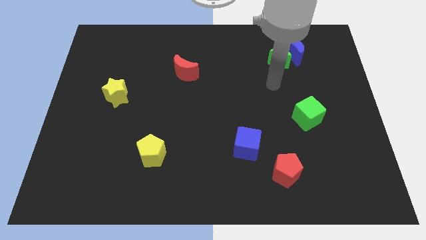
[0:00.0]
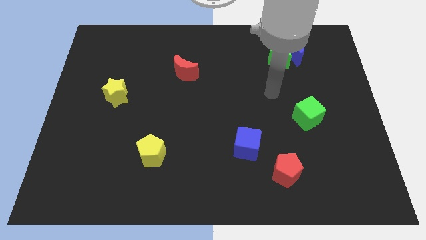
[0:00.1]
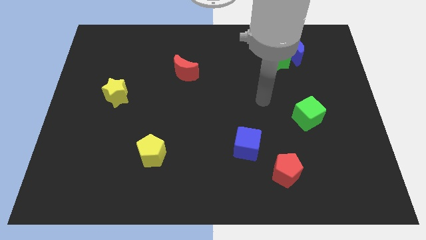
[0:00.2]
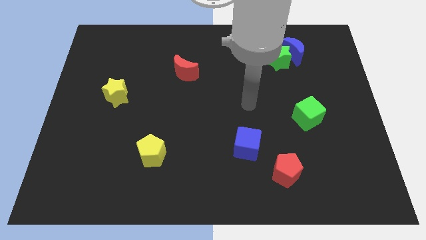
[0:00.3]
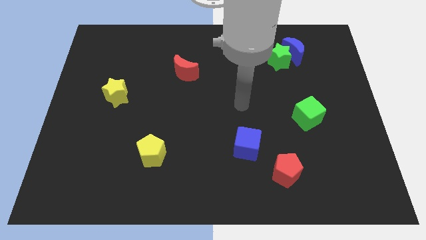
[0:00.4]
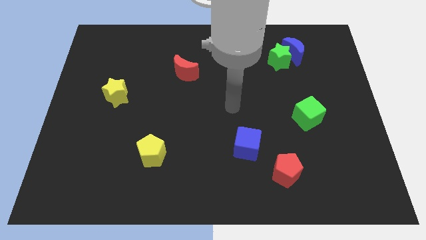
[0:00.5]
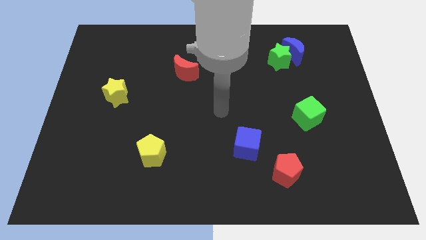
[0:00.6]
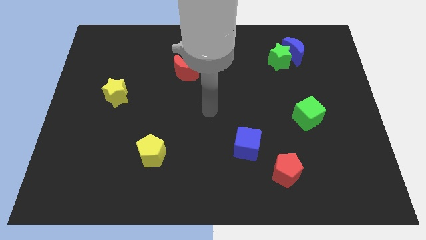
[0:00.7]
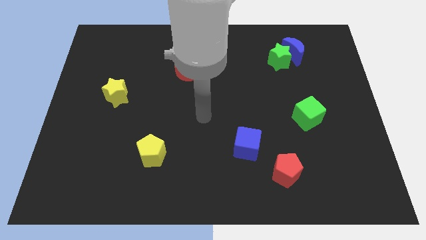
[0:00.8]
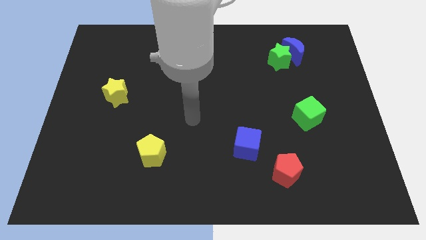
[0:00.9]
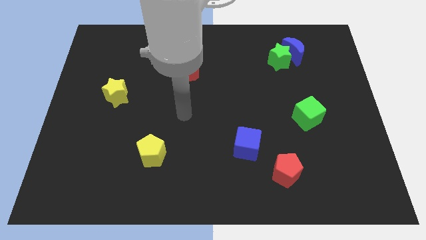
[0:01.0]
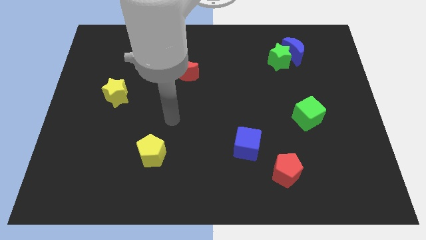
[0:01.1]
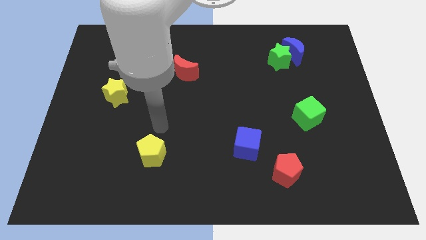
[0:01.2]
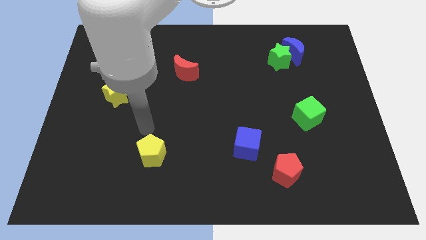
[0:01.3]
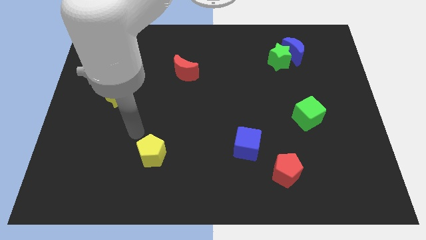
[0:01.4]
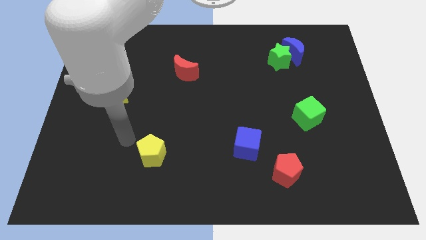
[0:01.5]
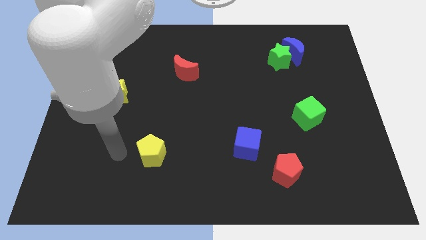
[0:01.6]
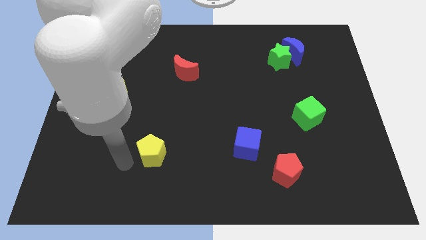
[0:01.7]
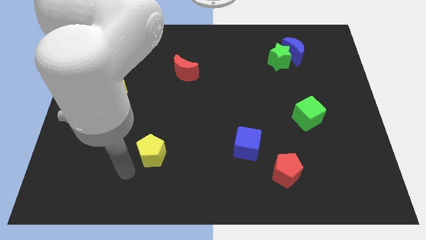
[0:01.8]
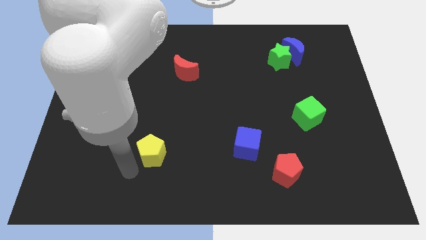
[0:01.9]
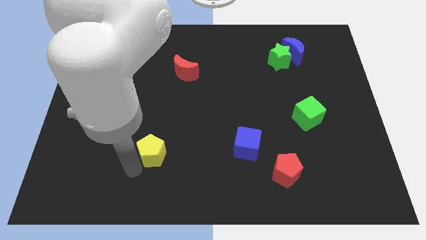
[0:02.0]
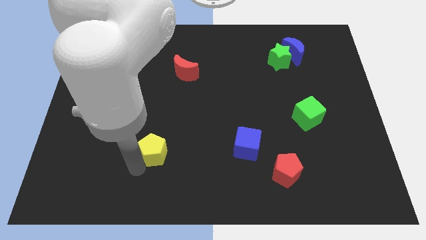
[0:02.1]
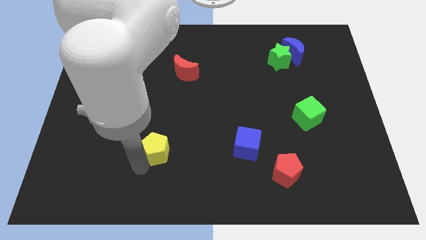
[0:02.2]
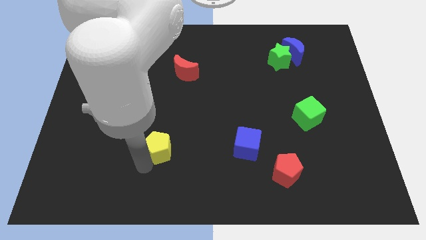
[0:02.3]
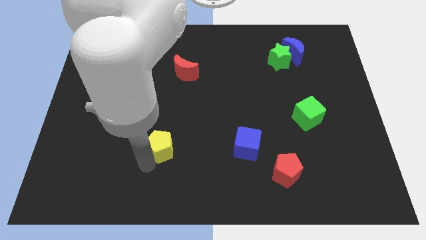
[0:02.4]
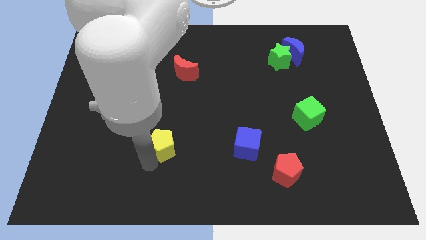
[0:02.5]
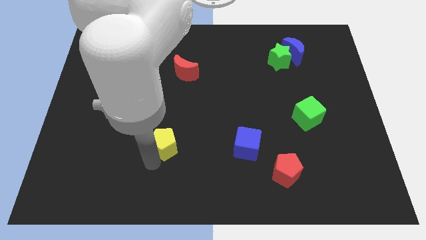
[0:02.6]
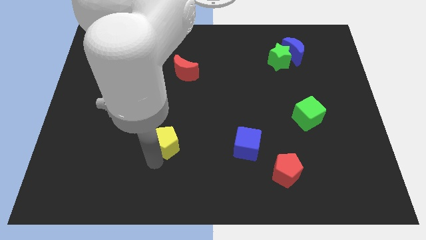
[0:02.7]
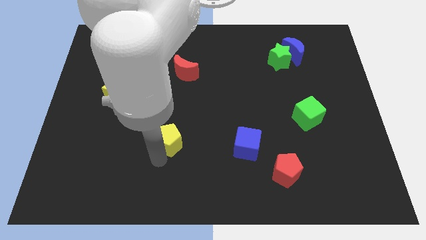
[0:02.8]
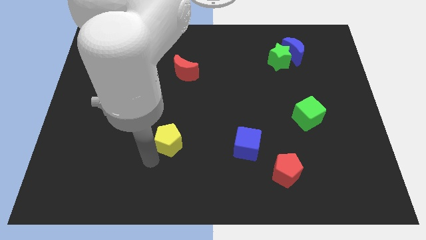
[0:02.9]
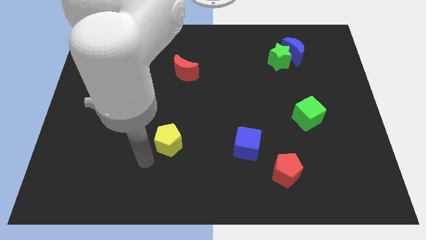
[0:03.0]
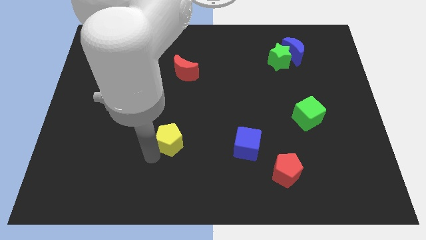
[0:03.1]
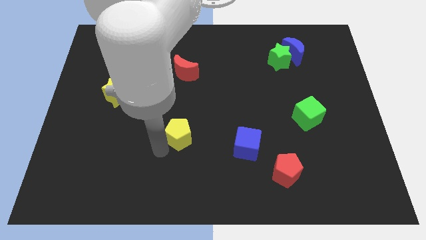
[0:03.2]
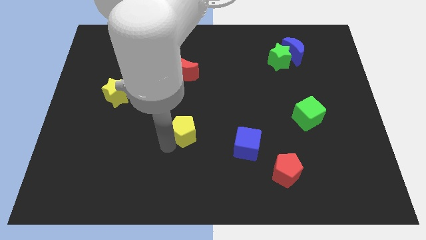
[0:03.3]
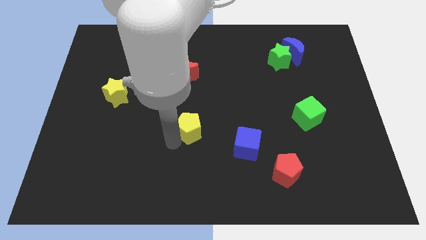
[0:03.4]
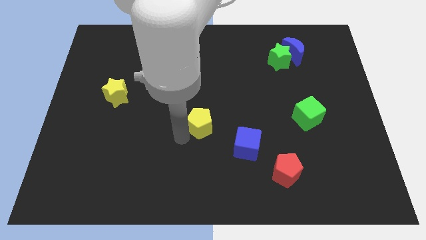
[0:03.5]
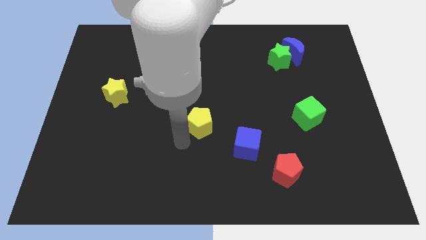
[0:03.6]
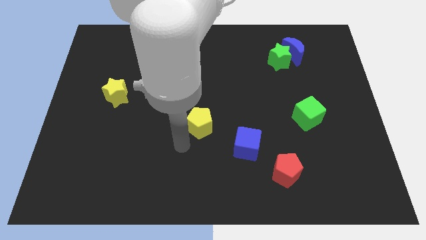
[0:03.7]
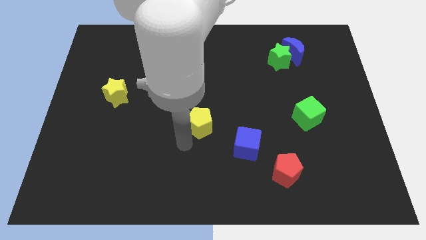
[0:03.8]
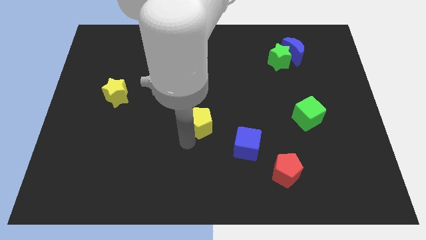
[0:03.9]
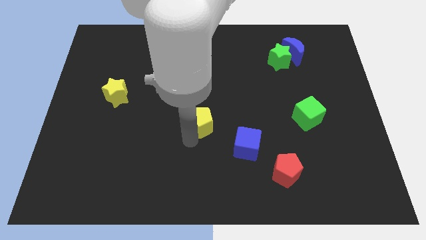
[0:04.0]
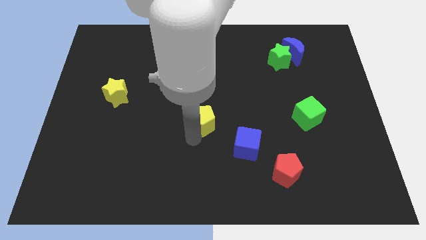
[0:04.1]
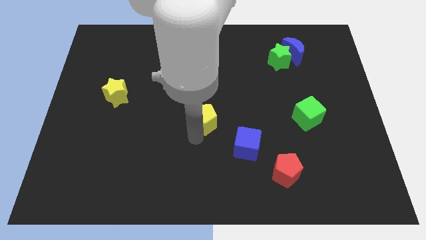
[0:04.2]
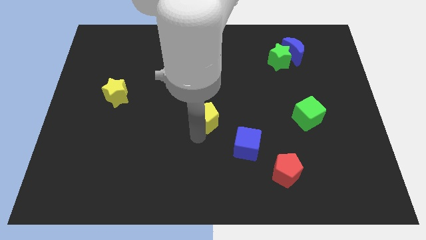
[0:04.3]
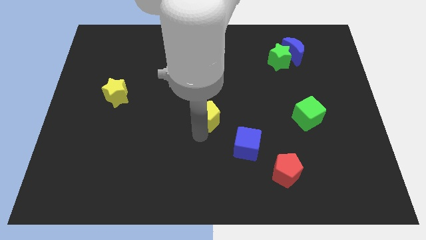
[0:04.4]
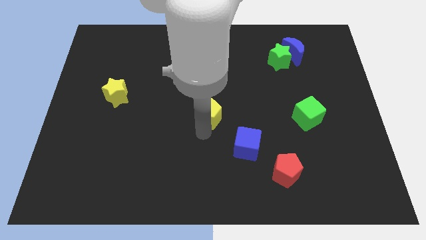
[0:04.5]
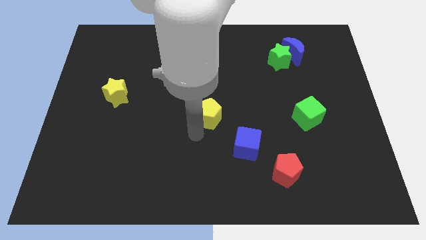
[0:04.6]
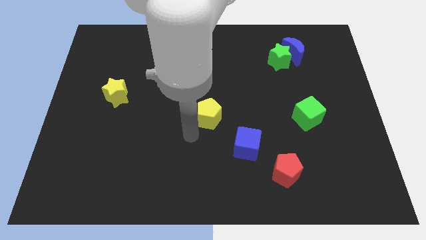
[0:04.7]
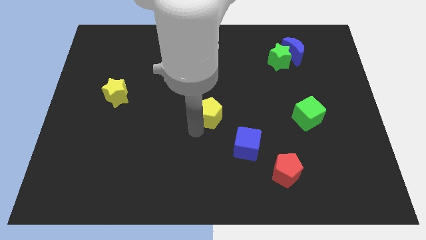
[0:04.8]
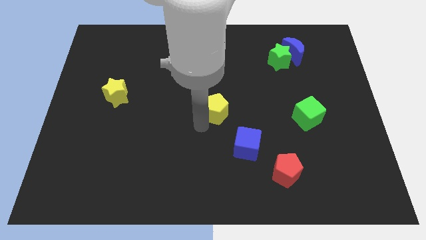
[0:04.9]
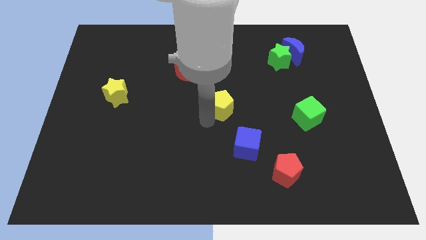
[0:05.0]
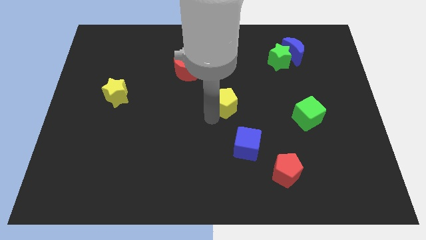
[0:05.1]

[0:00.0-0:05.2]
push the yellow pentagon diagonally up and right

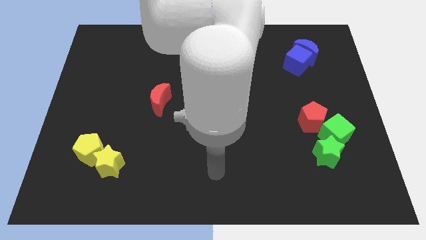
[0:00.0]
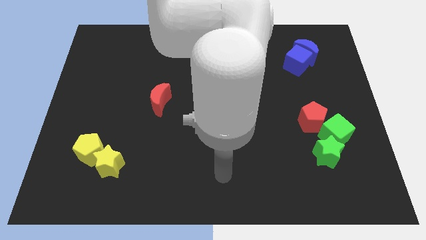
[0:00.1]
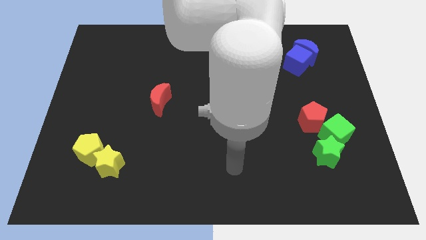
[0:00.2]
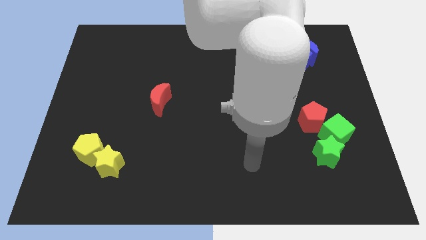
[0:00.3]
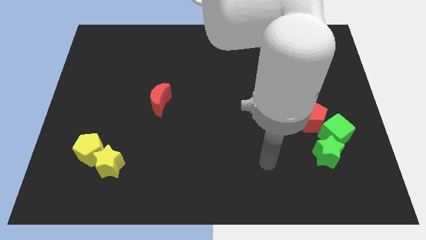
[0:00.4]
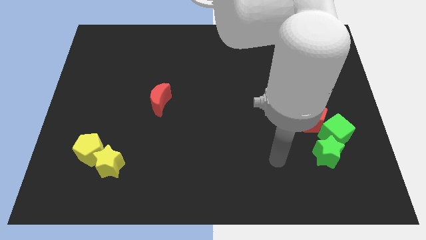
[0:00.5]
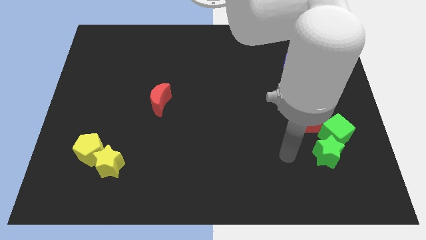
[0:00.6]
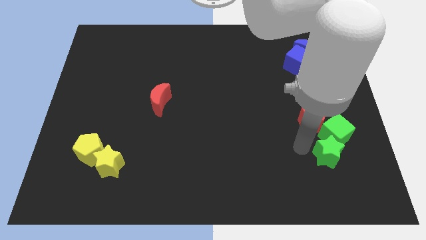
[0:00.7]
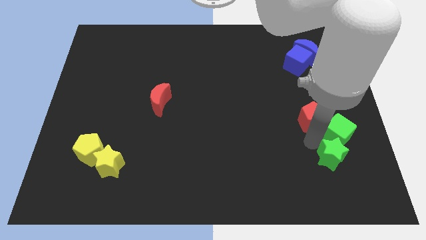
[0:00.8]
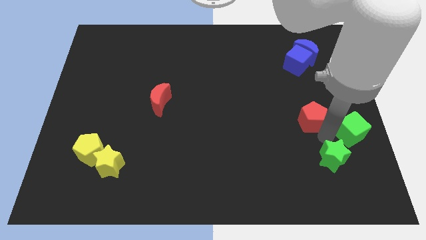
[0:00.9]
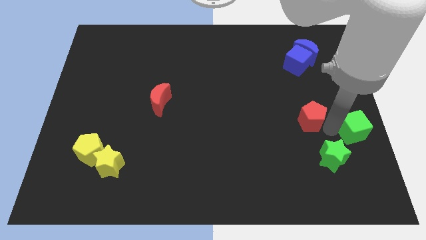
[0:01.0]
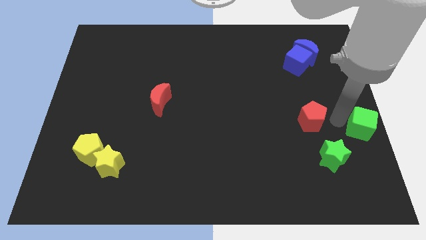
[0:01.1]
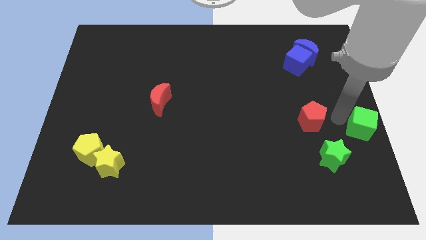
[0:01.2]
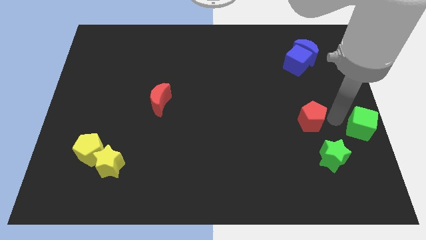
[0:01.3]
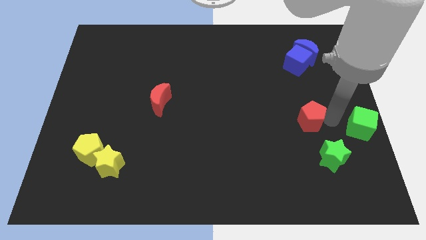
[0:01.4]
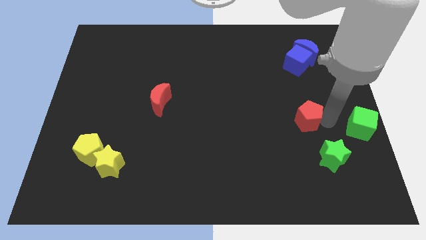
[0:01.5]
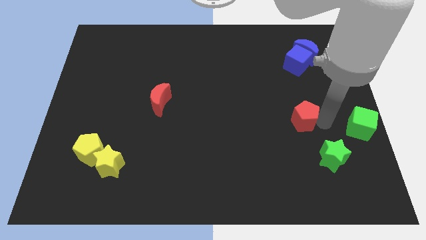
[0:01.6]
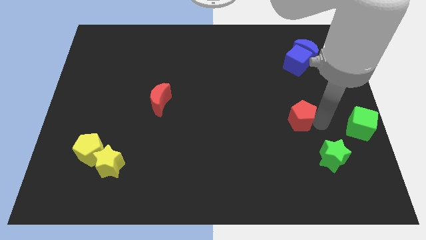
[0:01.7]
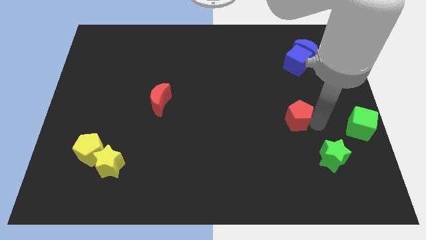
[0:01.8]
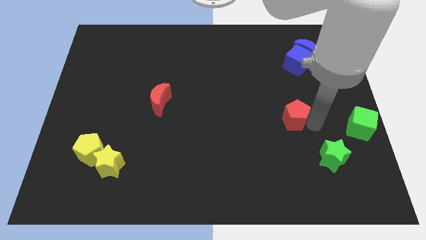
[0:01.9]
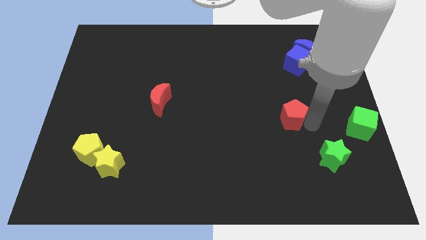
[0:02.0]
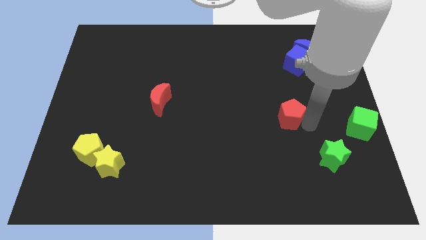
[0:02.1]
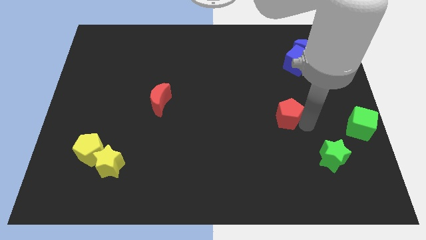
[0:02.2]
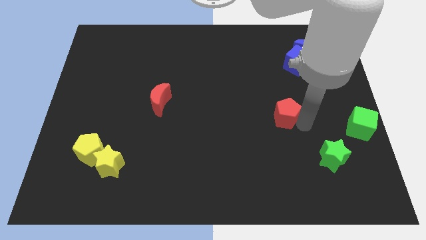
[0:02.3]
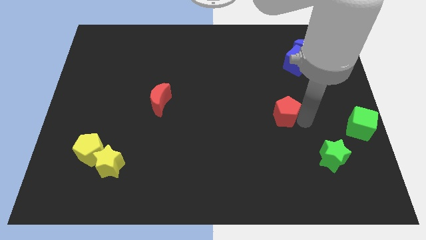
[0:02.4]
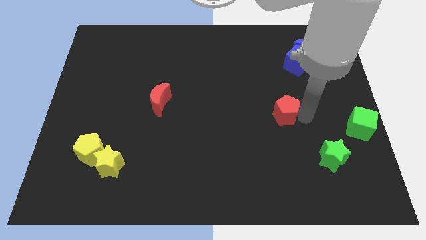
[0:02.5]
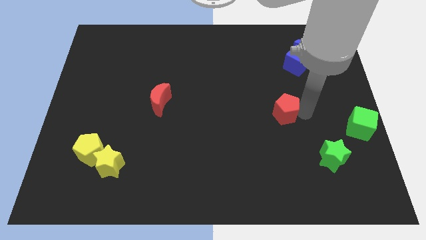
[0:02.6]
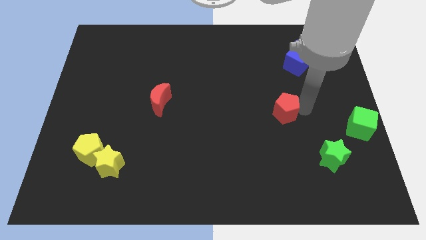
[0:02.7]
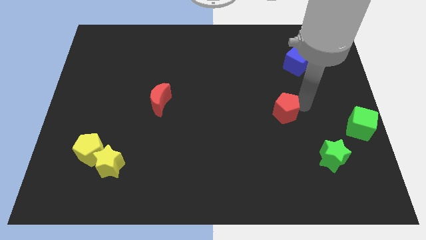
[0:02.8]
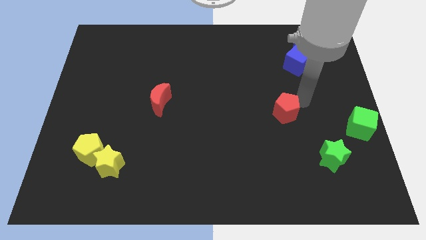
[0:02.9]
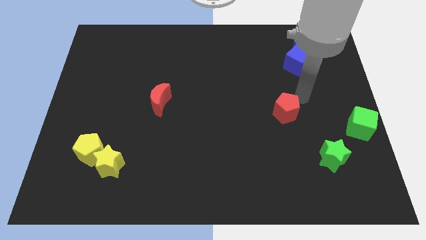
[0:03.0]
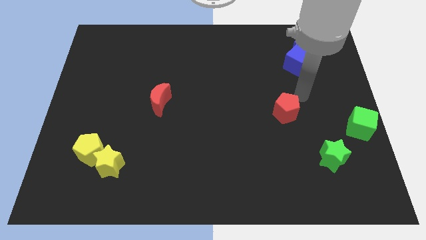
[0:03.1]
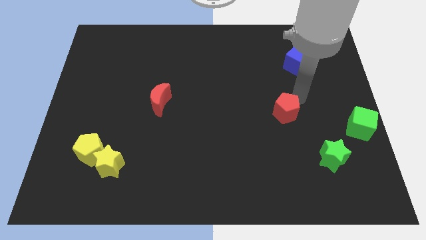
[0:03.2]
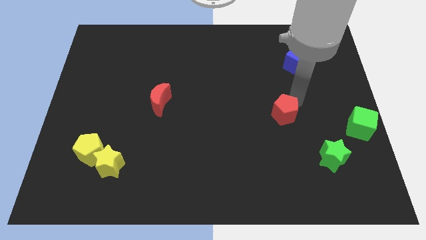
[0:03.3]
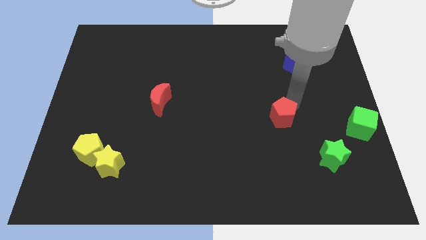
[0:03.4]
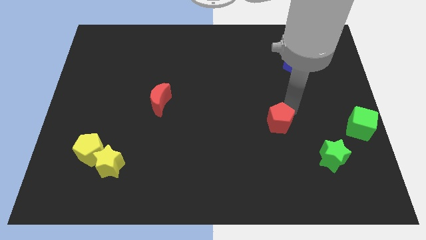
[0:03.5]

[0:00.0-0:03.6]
push the red pentagon left a little
